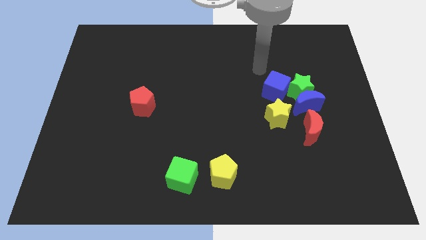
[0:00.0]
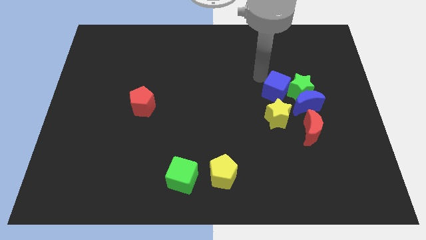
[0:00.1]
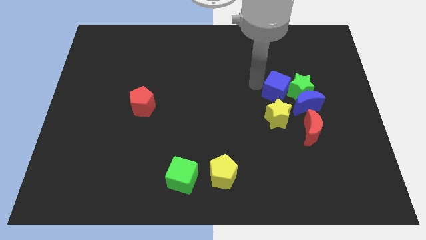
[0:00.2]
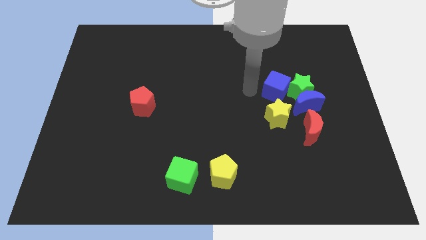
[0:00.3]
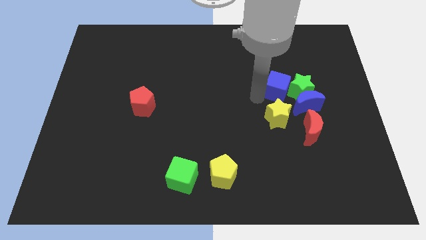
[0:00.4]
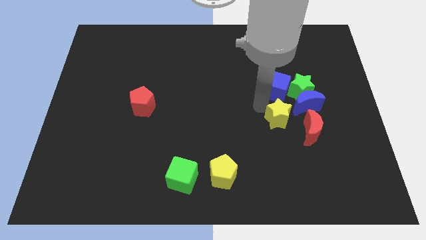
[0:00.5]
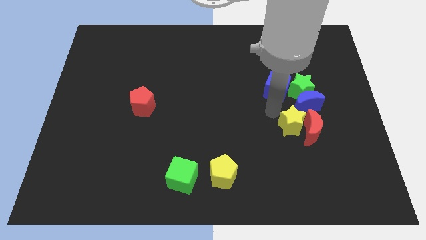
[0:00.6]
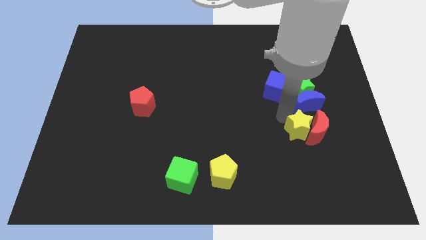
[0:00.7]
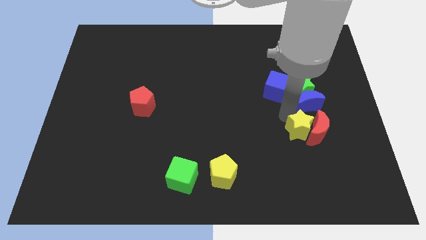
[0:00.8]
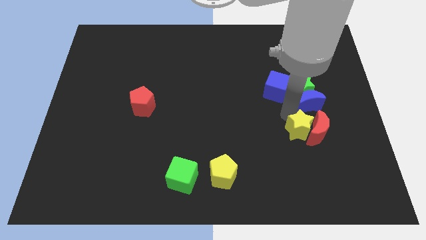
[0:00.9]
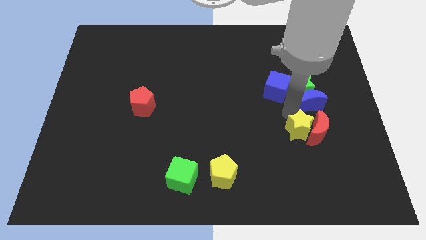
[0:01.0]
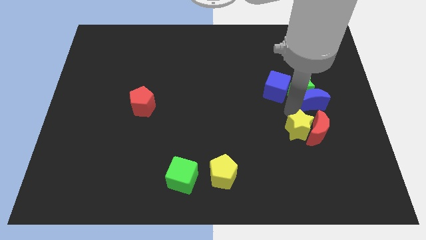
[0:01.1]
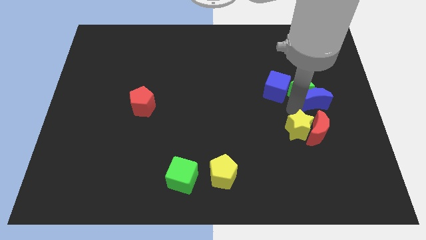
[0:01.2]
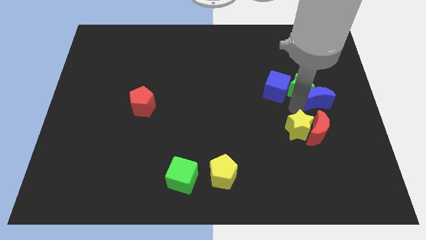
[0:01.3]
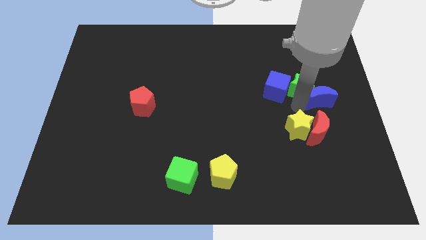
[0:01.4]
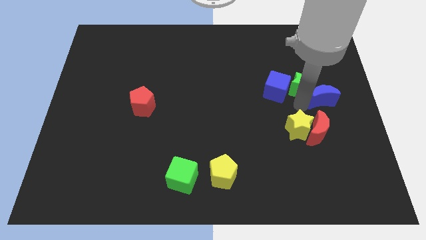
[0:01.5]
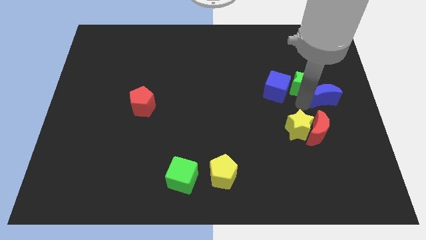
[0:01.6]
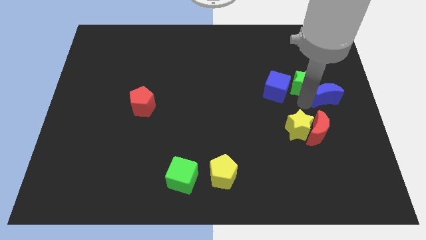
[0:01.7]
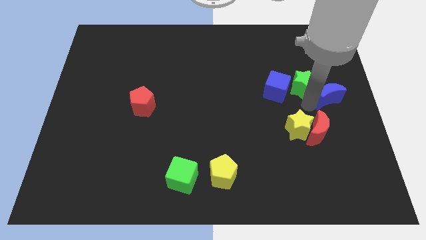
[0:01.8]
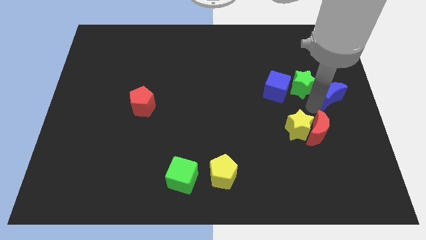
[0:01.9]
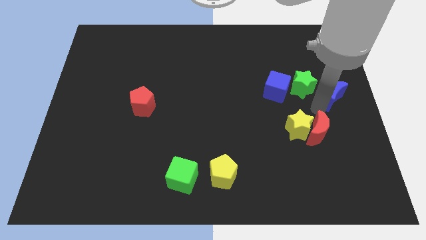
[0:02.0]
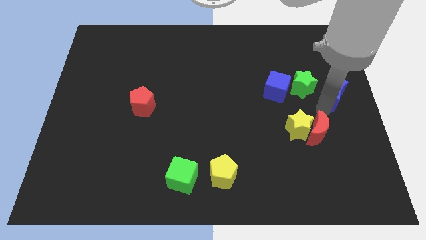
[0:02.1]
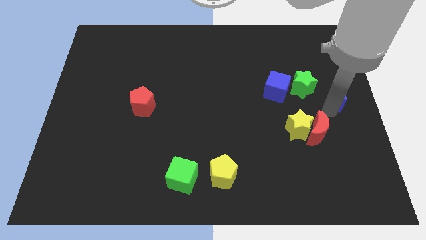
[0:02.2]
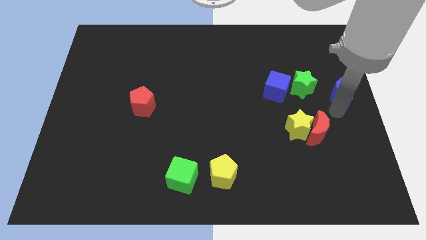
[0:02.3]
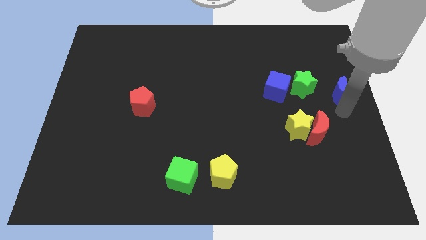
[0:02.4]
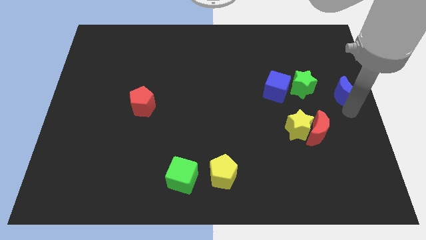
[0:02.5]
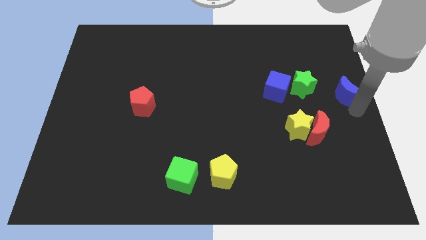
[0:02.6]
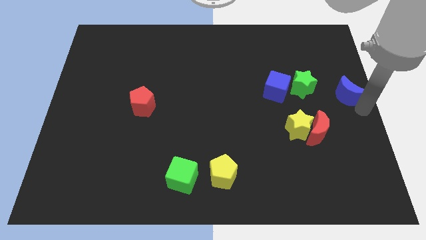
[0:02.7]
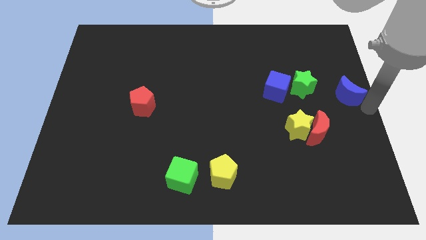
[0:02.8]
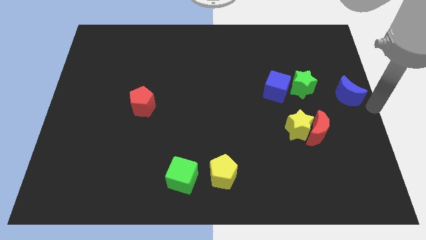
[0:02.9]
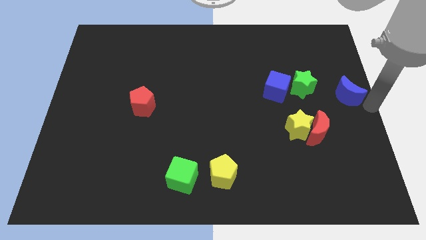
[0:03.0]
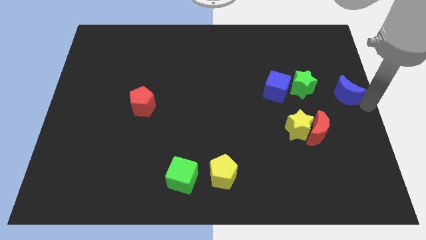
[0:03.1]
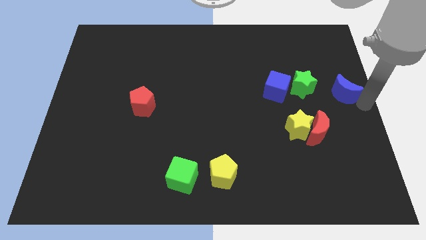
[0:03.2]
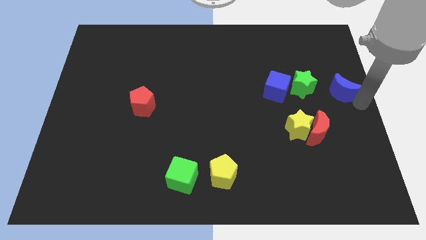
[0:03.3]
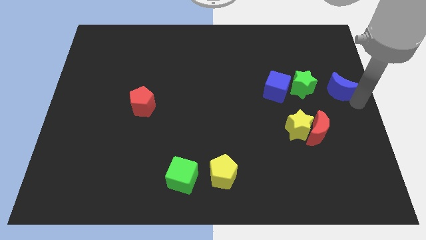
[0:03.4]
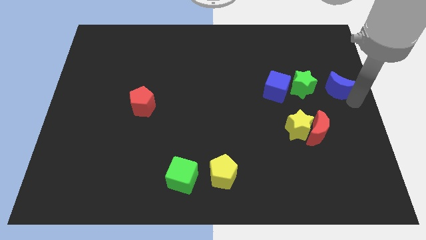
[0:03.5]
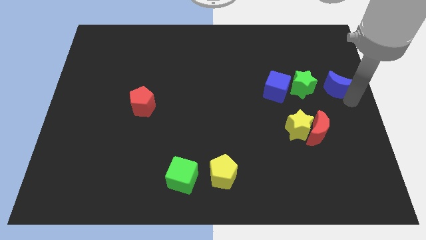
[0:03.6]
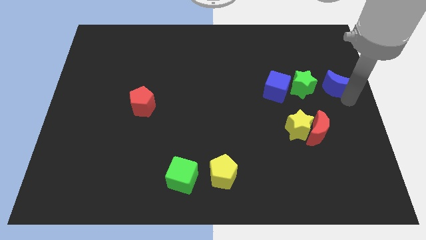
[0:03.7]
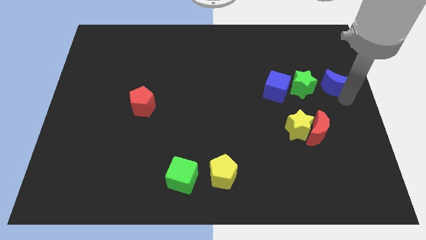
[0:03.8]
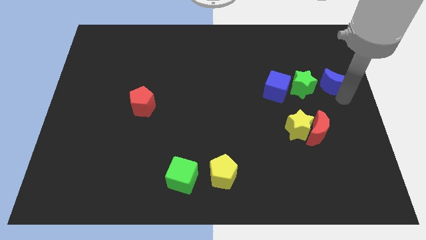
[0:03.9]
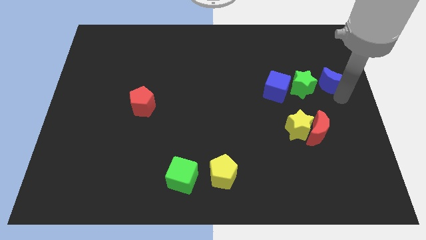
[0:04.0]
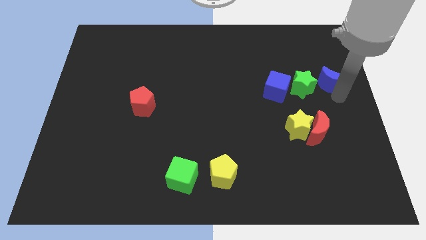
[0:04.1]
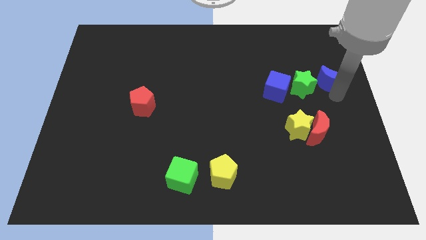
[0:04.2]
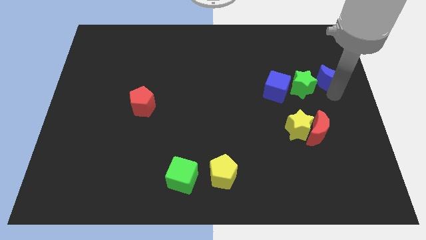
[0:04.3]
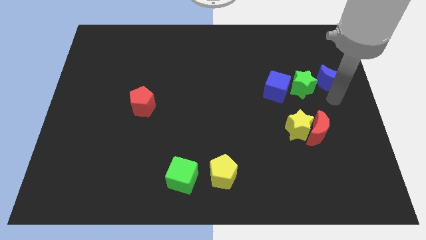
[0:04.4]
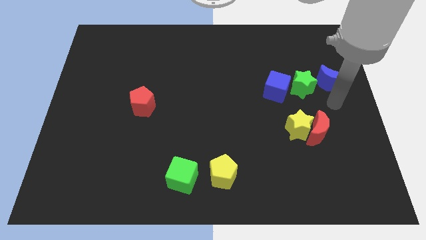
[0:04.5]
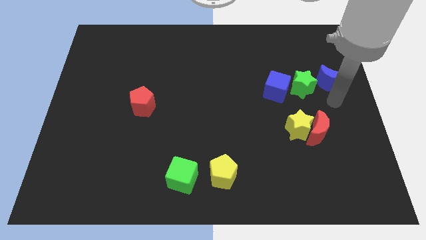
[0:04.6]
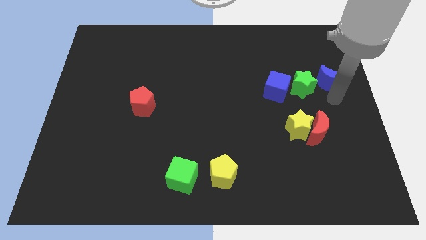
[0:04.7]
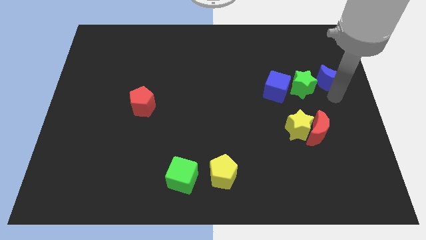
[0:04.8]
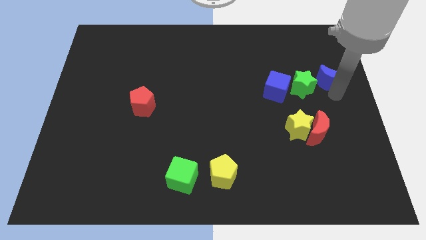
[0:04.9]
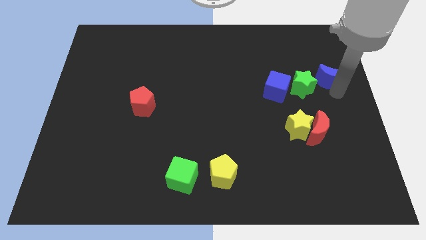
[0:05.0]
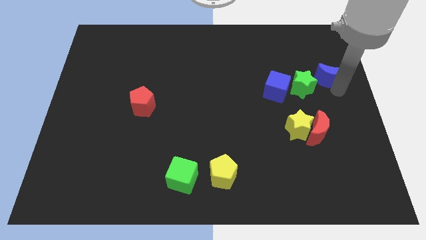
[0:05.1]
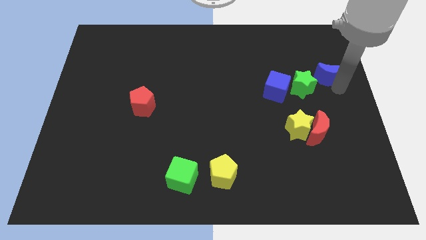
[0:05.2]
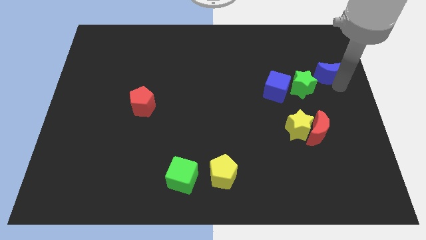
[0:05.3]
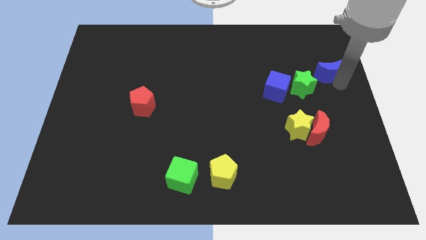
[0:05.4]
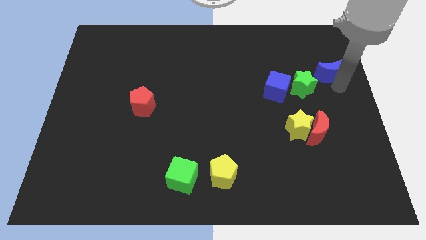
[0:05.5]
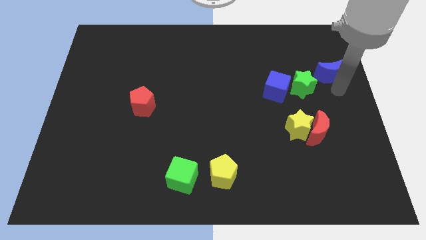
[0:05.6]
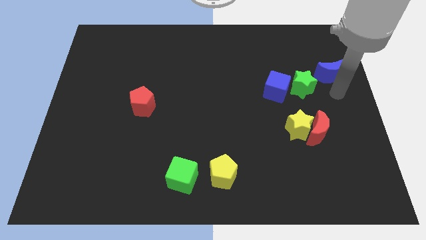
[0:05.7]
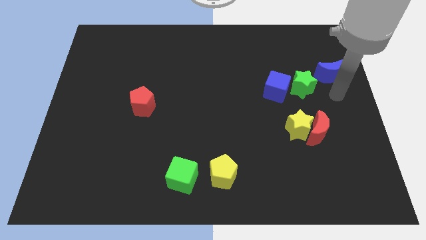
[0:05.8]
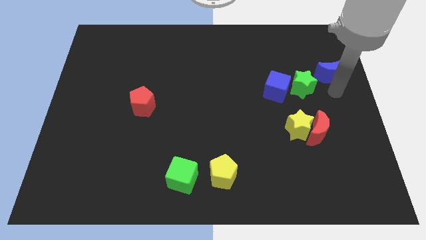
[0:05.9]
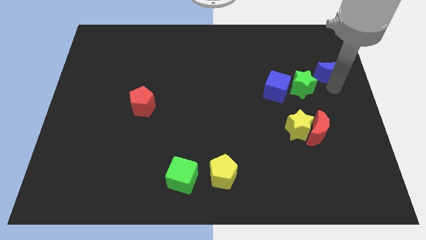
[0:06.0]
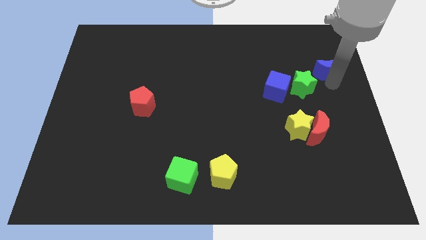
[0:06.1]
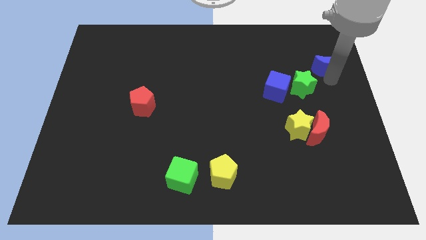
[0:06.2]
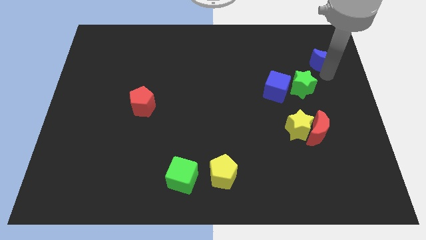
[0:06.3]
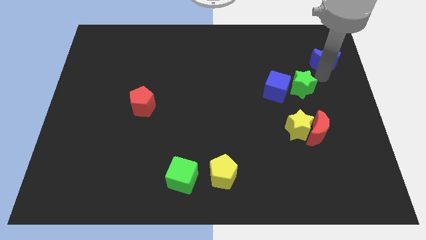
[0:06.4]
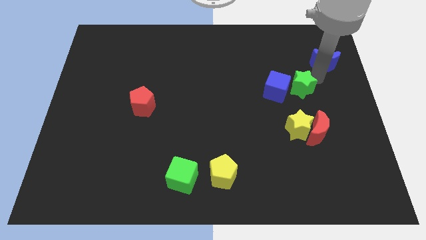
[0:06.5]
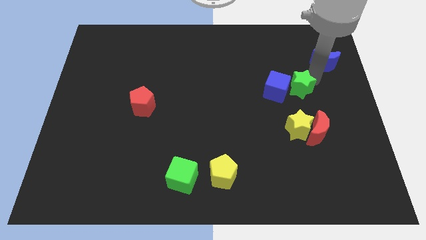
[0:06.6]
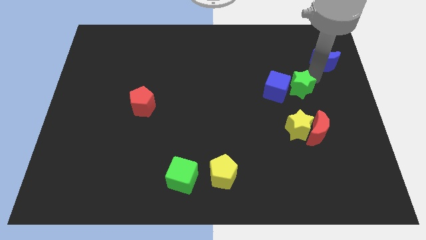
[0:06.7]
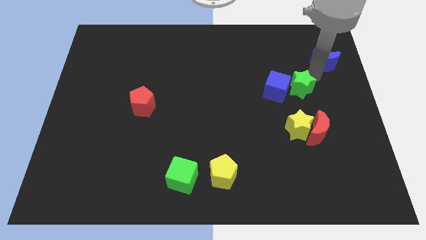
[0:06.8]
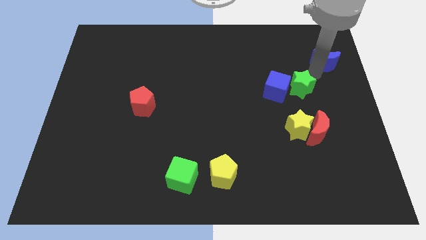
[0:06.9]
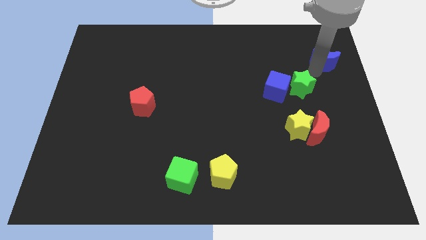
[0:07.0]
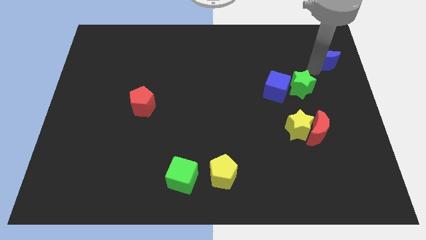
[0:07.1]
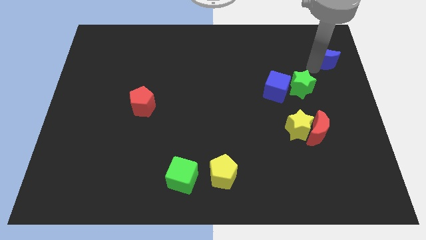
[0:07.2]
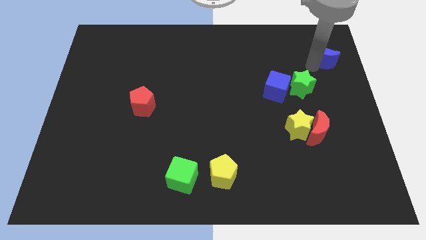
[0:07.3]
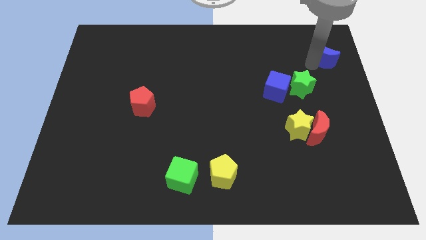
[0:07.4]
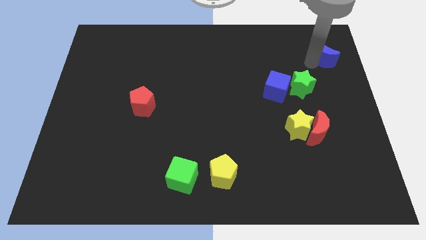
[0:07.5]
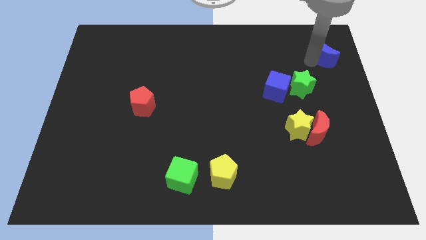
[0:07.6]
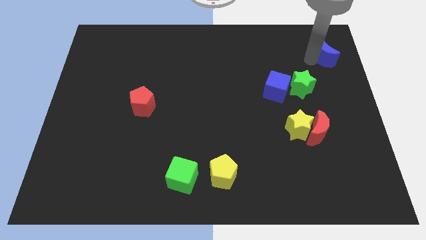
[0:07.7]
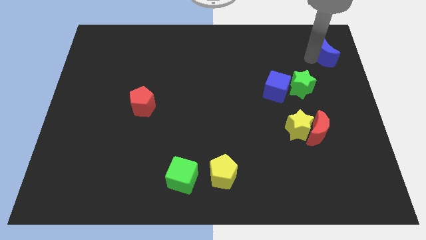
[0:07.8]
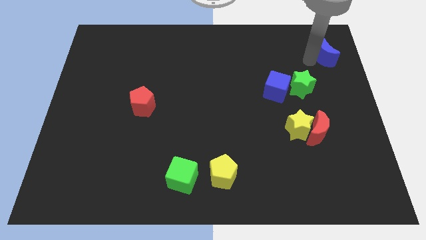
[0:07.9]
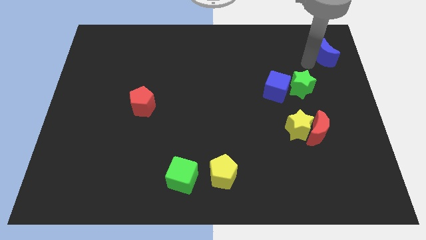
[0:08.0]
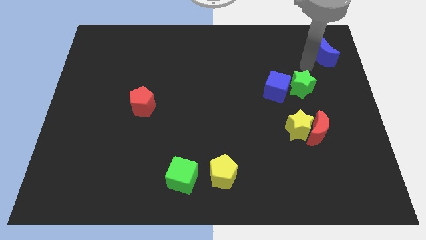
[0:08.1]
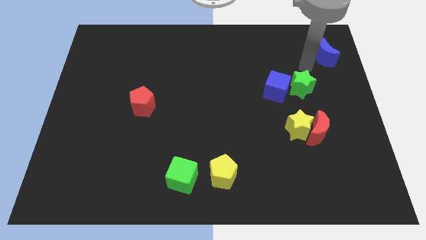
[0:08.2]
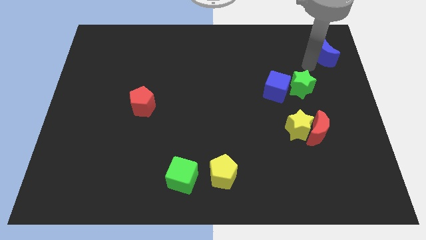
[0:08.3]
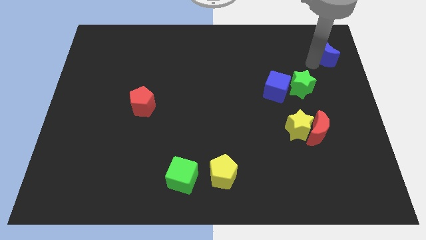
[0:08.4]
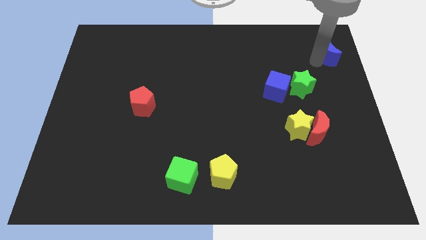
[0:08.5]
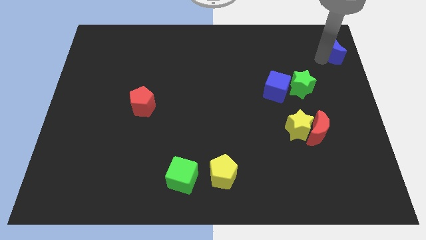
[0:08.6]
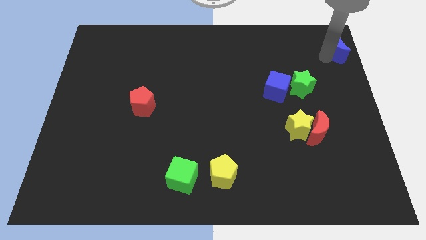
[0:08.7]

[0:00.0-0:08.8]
slide the blue moon to the top right
